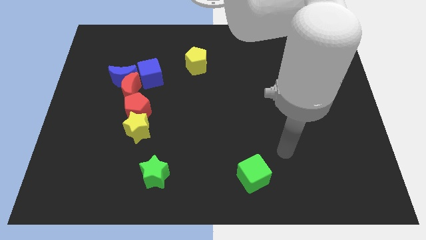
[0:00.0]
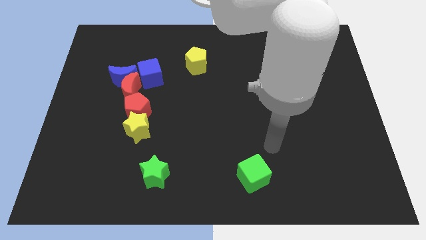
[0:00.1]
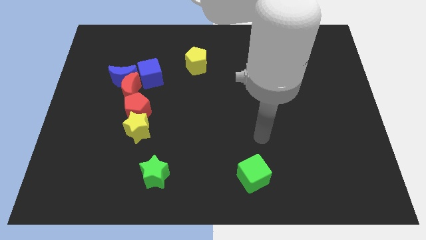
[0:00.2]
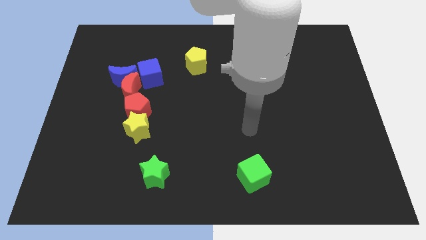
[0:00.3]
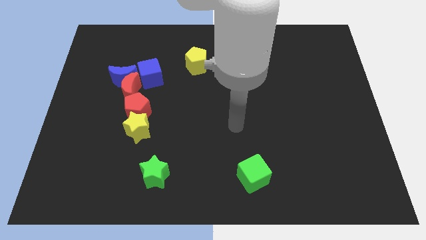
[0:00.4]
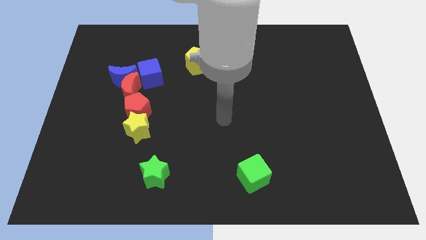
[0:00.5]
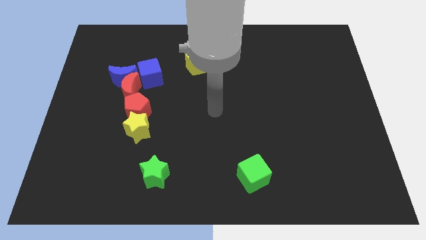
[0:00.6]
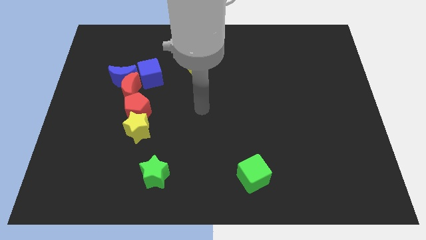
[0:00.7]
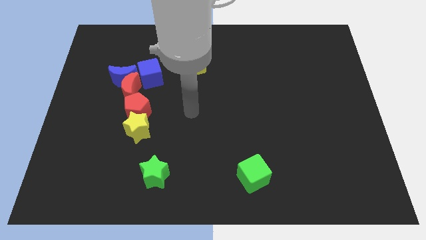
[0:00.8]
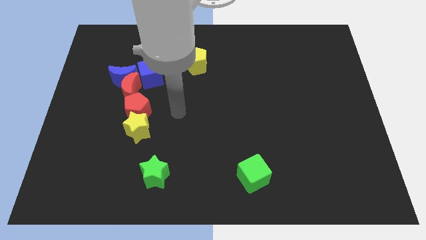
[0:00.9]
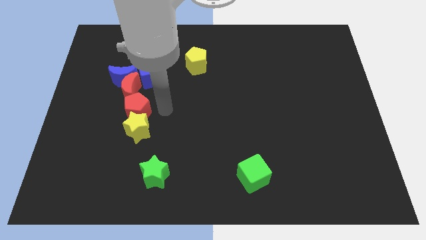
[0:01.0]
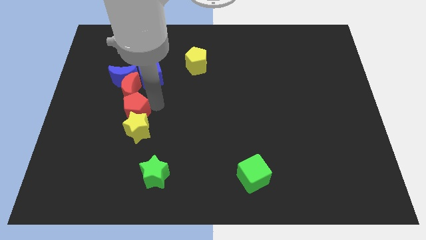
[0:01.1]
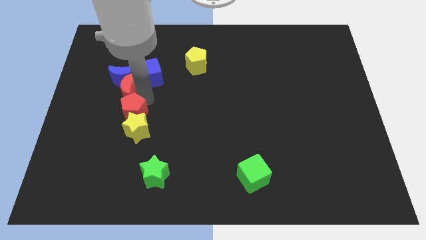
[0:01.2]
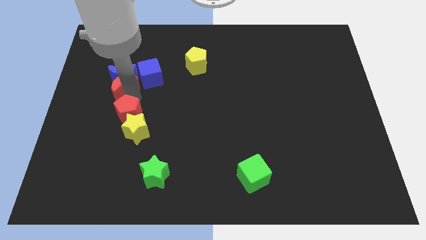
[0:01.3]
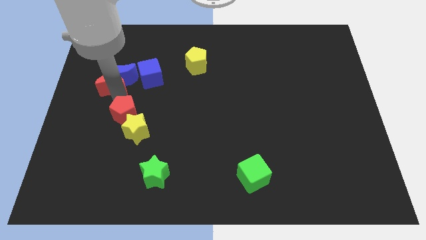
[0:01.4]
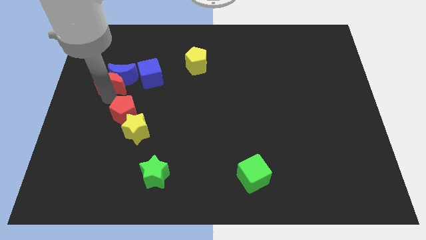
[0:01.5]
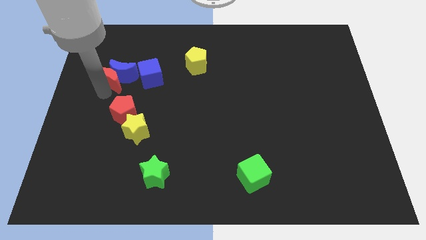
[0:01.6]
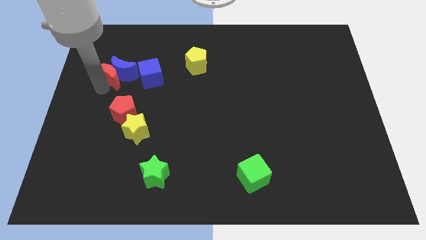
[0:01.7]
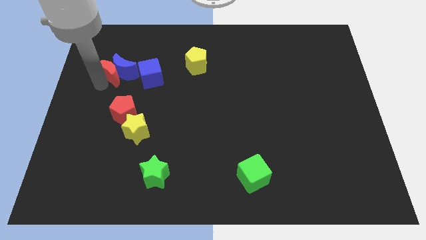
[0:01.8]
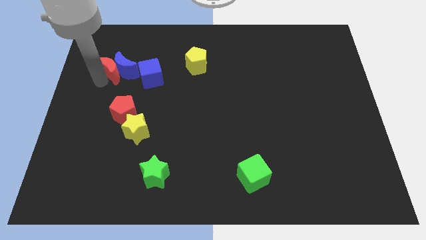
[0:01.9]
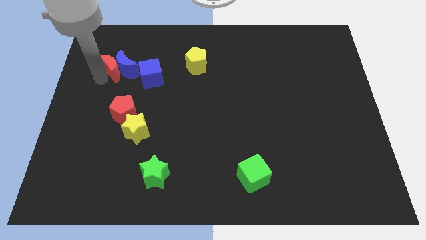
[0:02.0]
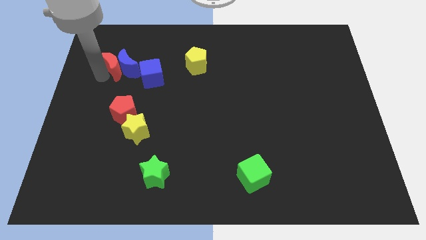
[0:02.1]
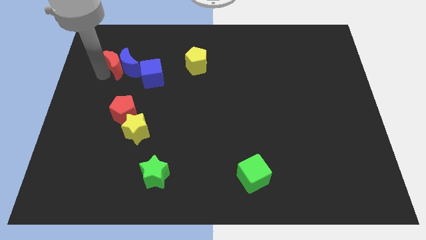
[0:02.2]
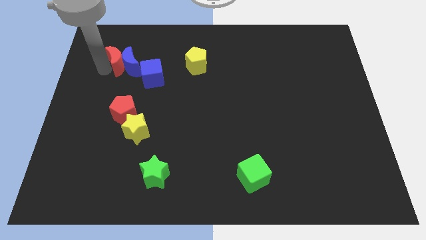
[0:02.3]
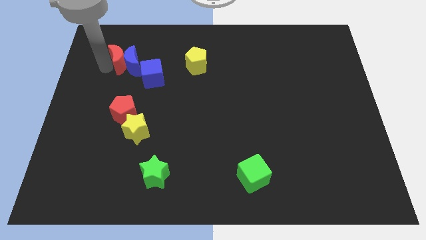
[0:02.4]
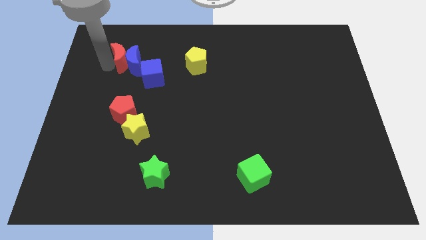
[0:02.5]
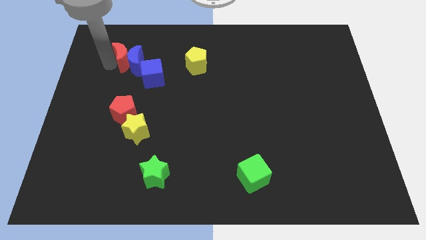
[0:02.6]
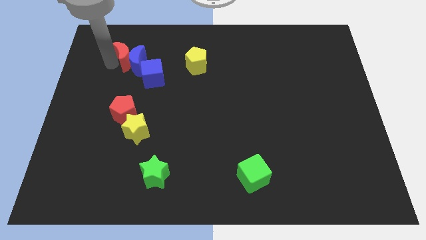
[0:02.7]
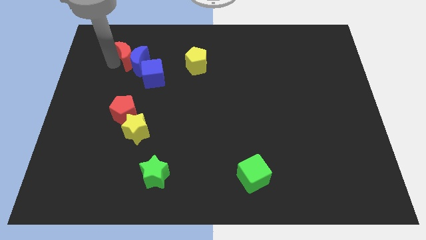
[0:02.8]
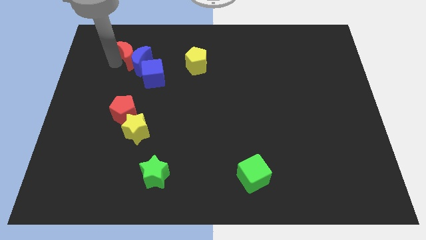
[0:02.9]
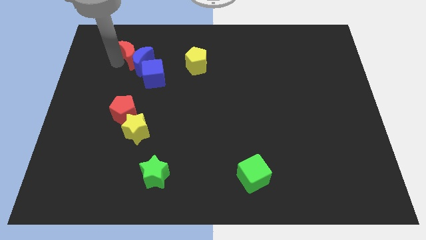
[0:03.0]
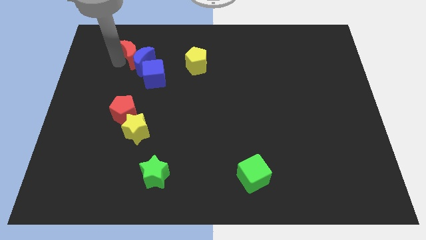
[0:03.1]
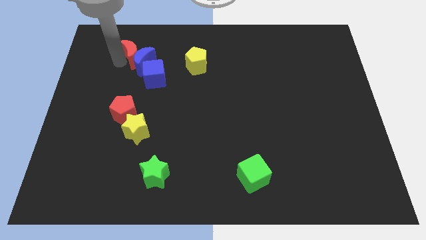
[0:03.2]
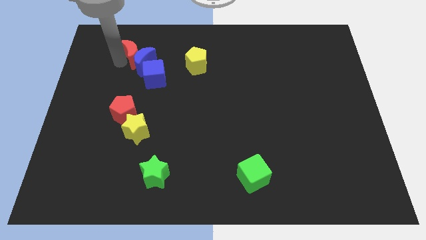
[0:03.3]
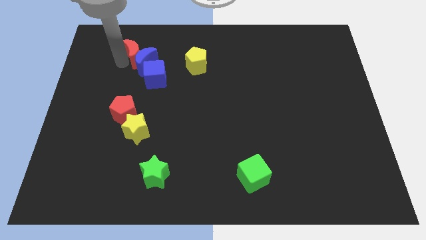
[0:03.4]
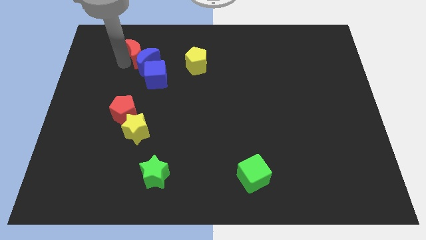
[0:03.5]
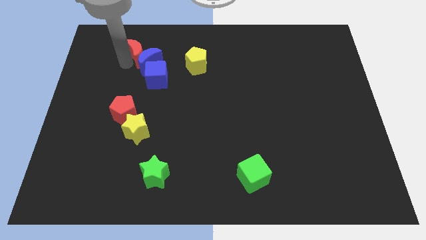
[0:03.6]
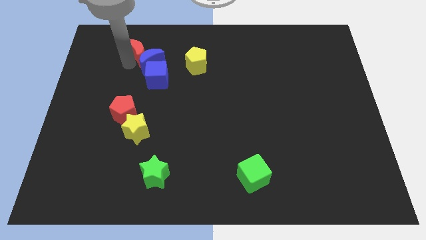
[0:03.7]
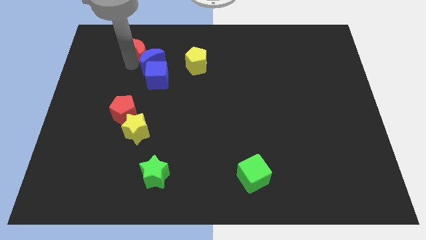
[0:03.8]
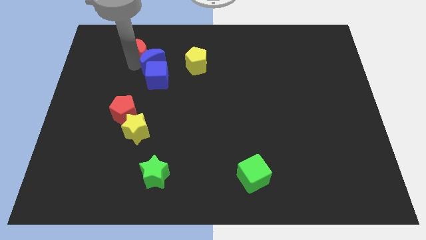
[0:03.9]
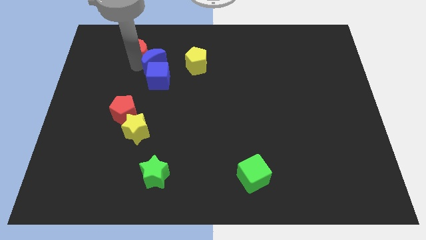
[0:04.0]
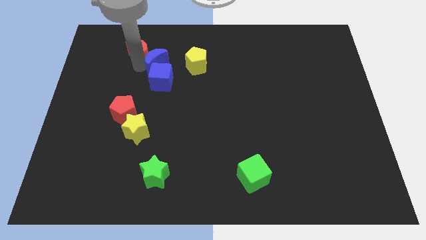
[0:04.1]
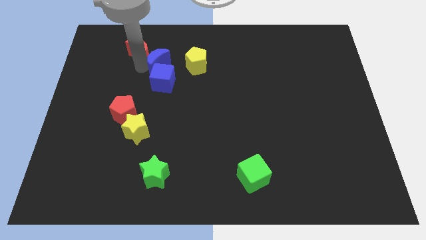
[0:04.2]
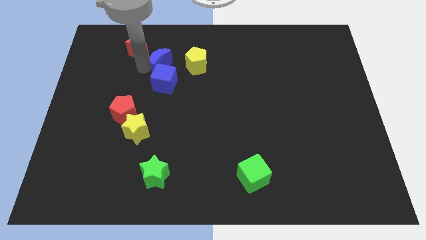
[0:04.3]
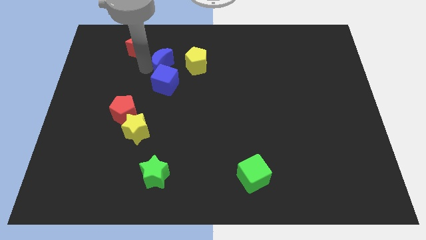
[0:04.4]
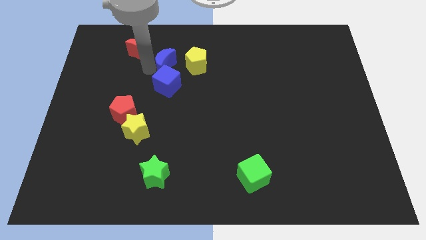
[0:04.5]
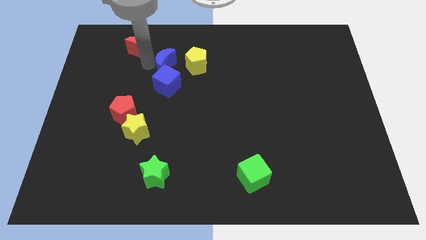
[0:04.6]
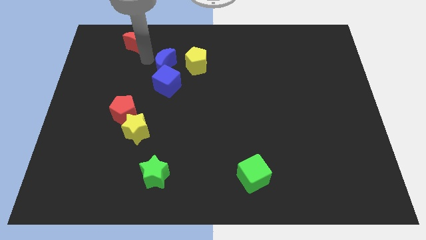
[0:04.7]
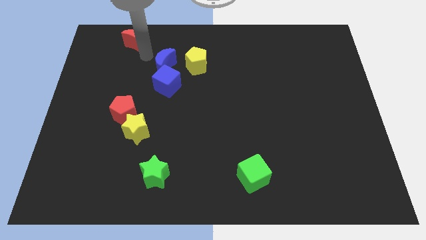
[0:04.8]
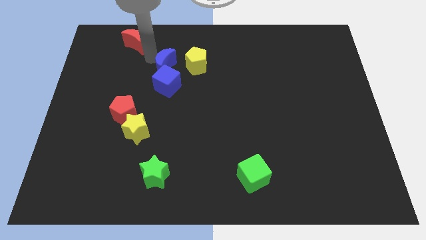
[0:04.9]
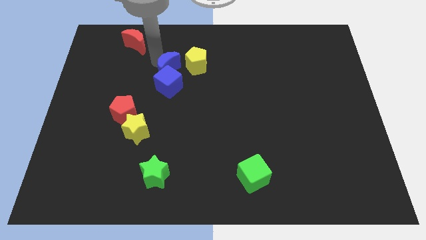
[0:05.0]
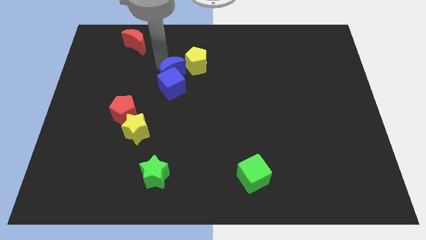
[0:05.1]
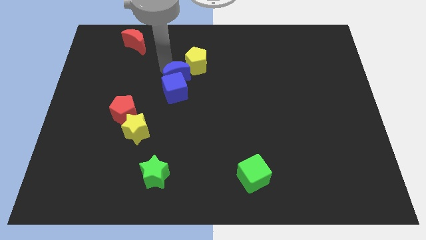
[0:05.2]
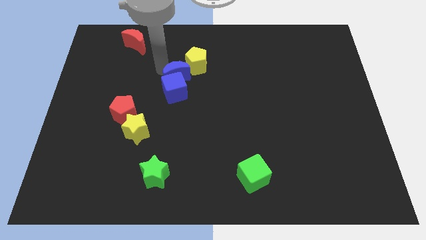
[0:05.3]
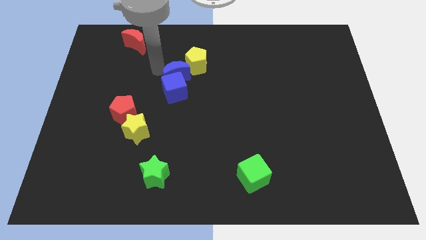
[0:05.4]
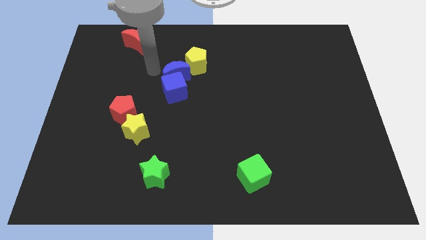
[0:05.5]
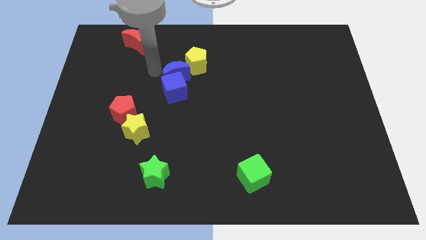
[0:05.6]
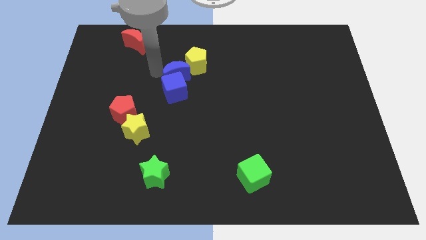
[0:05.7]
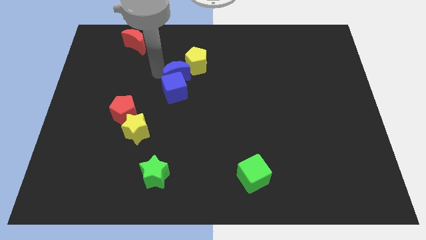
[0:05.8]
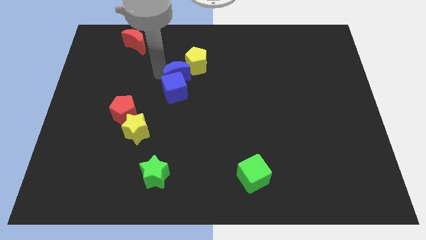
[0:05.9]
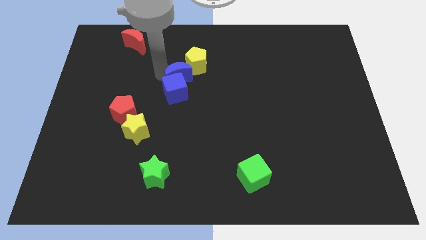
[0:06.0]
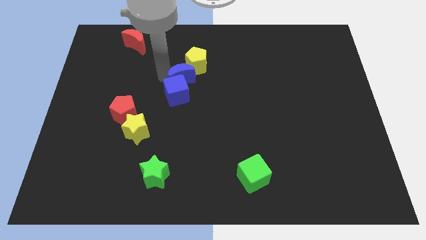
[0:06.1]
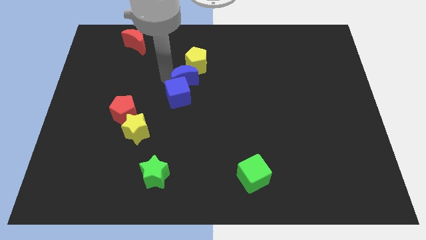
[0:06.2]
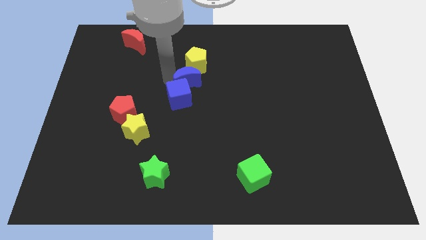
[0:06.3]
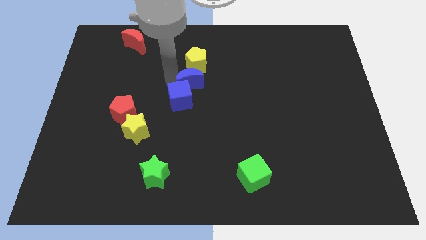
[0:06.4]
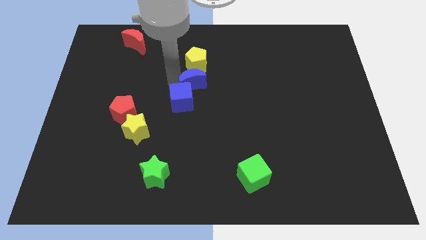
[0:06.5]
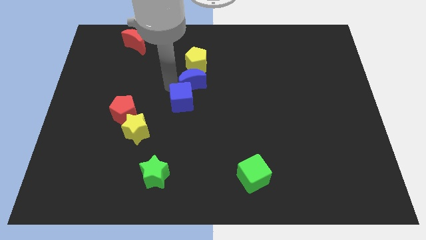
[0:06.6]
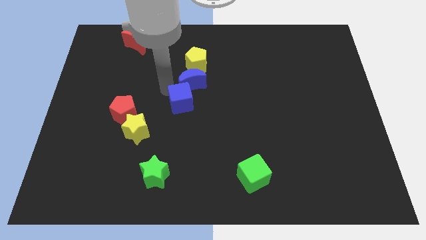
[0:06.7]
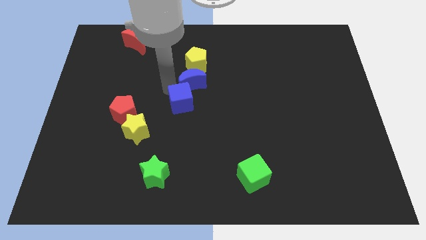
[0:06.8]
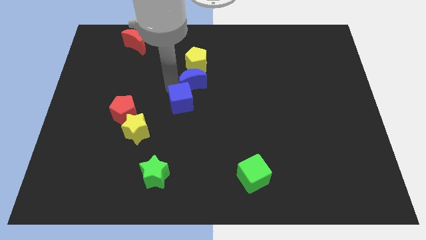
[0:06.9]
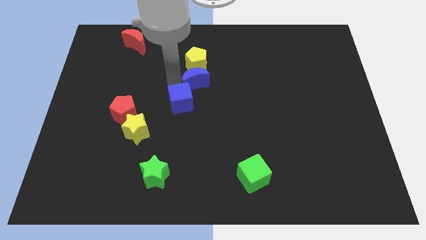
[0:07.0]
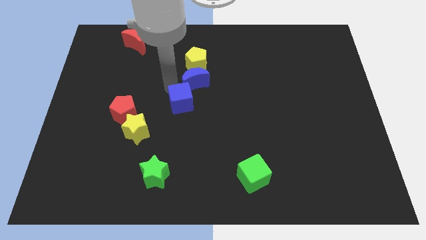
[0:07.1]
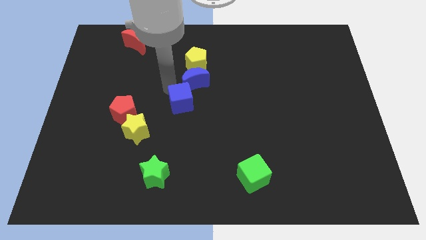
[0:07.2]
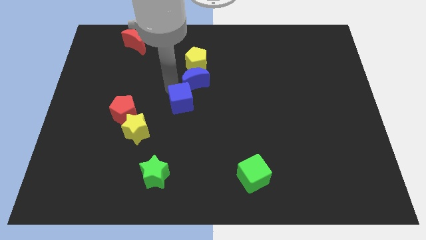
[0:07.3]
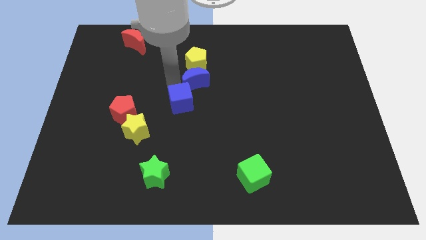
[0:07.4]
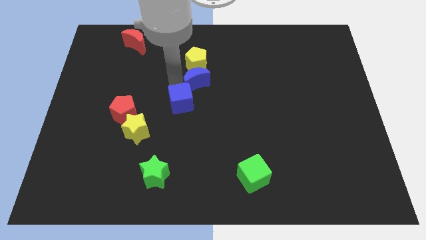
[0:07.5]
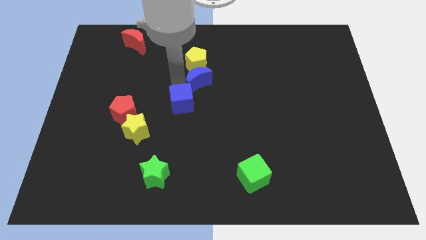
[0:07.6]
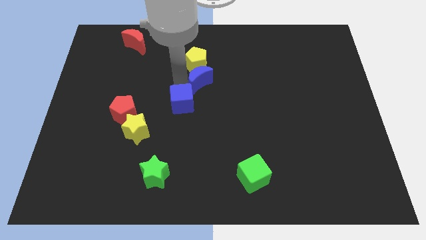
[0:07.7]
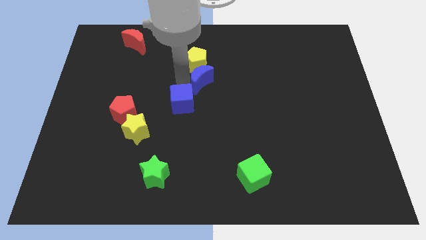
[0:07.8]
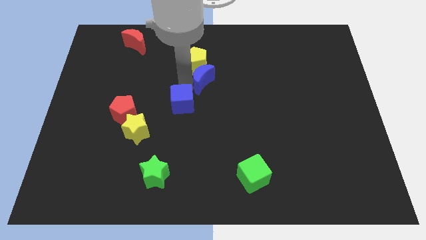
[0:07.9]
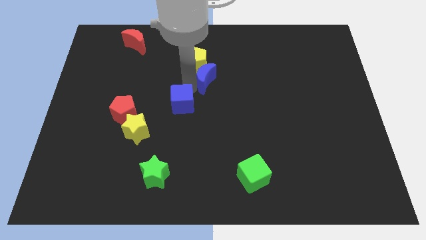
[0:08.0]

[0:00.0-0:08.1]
push the blue moon right

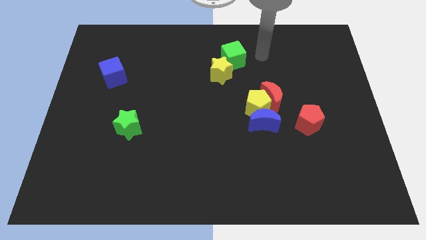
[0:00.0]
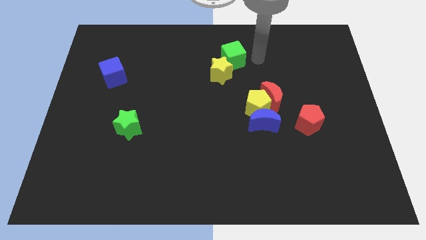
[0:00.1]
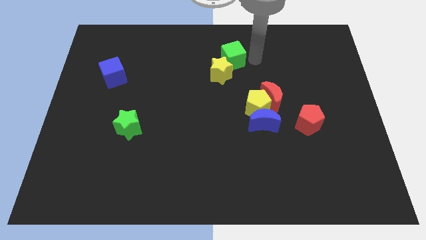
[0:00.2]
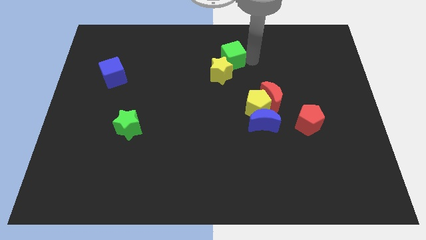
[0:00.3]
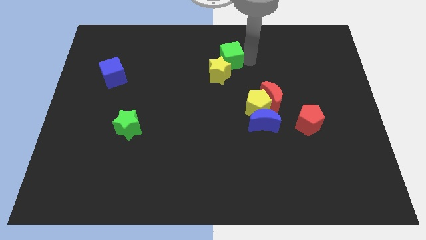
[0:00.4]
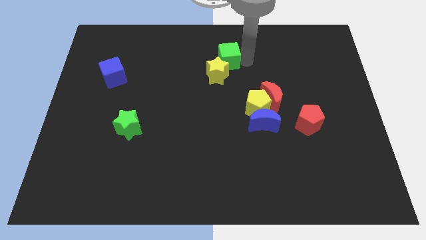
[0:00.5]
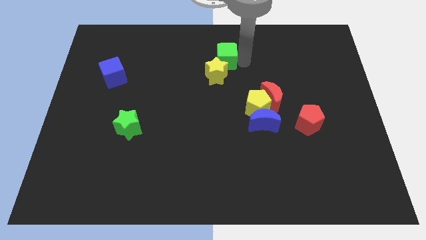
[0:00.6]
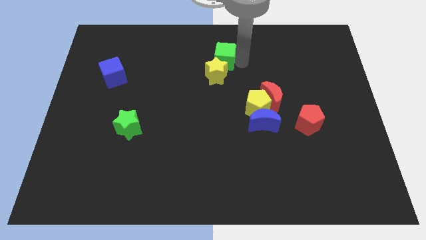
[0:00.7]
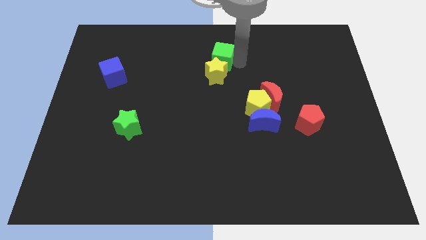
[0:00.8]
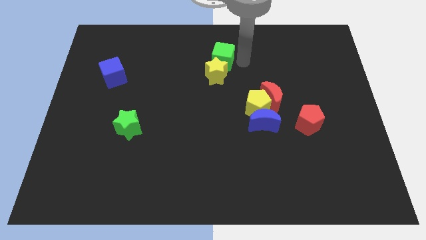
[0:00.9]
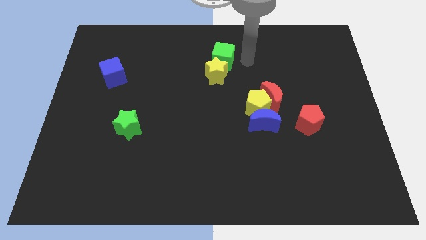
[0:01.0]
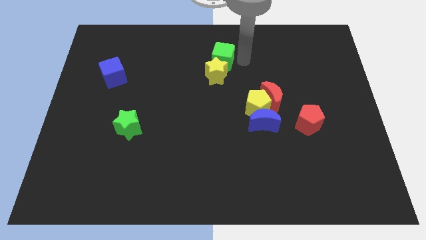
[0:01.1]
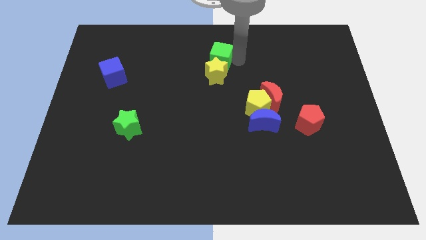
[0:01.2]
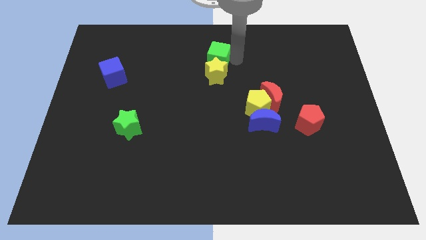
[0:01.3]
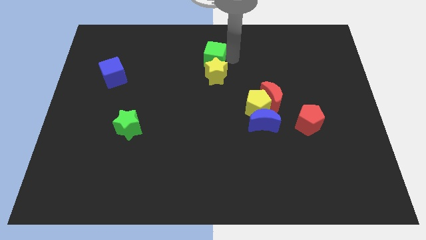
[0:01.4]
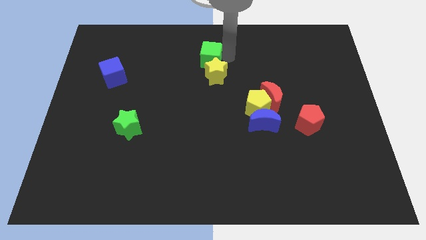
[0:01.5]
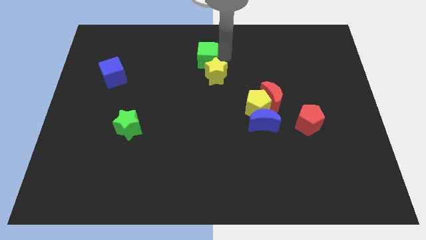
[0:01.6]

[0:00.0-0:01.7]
push the green cube slightly left
